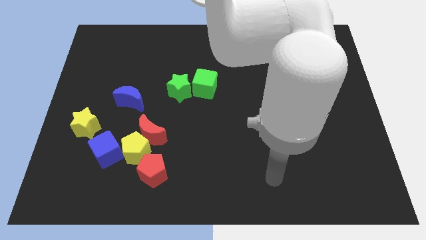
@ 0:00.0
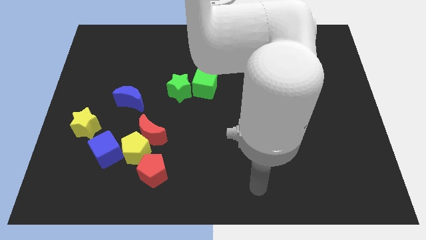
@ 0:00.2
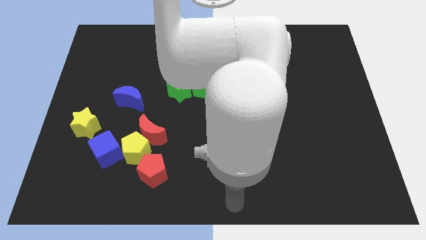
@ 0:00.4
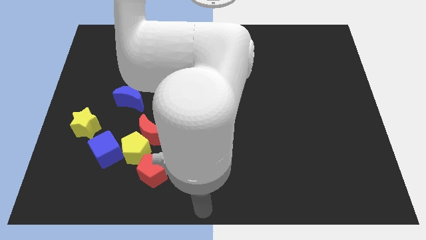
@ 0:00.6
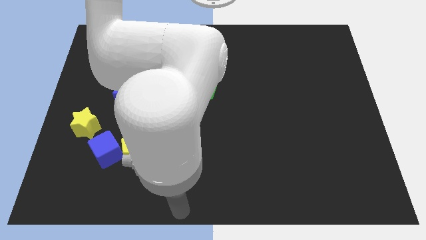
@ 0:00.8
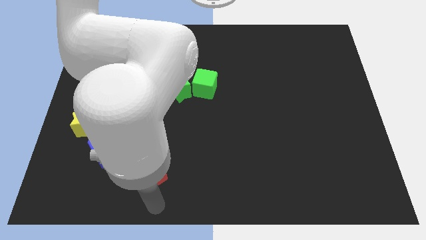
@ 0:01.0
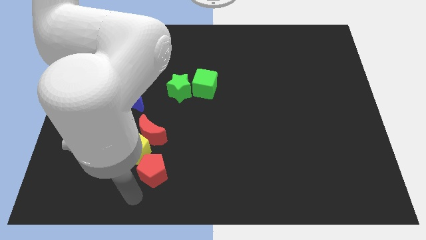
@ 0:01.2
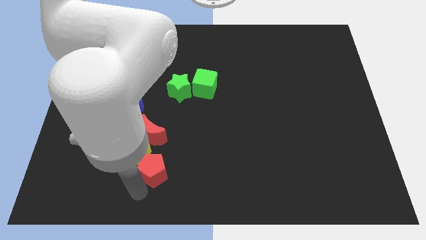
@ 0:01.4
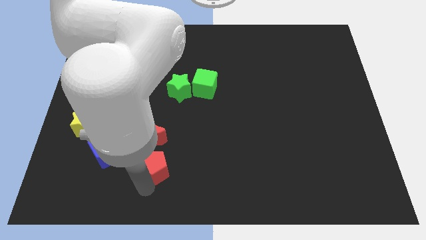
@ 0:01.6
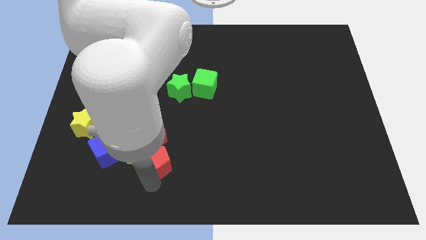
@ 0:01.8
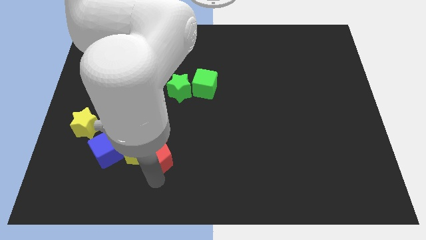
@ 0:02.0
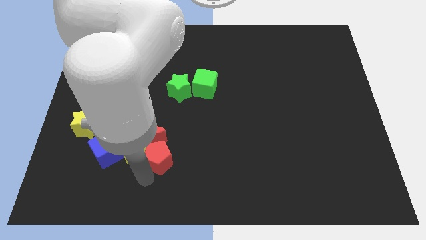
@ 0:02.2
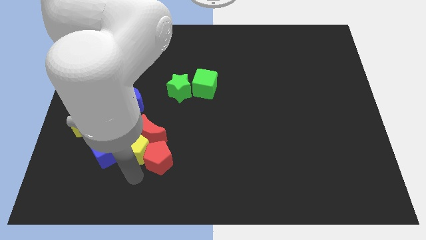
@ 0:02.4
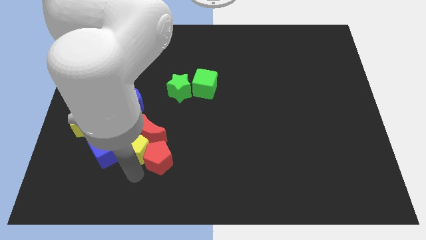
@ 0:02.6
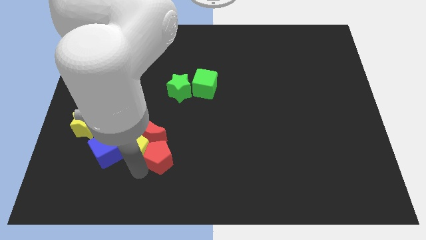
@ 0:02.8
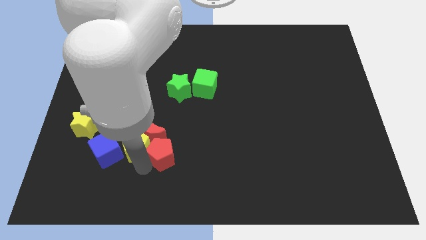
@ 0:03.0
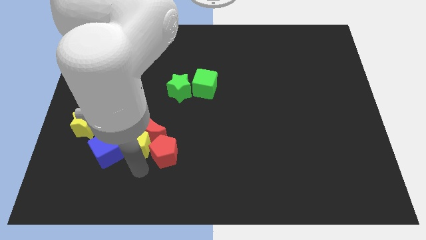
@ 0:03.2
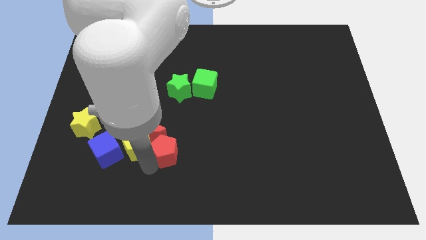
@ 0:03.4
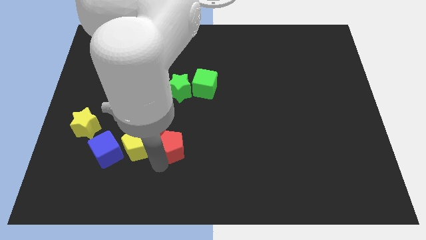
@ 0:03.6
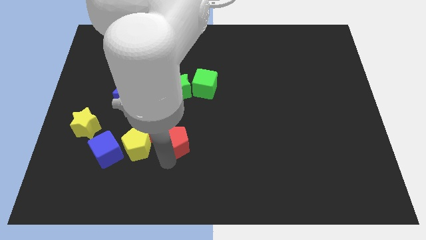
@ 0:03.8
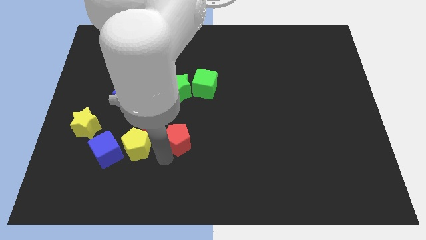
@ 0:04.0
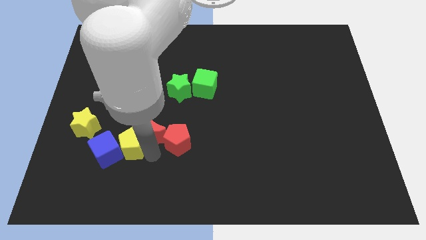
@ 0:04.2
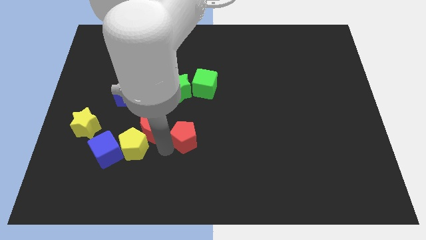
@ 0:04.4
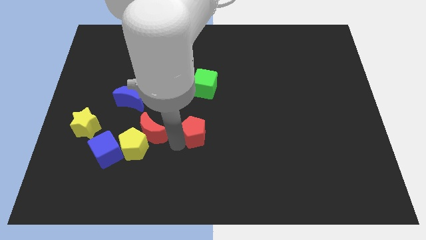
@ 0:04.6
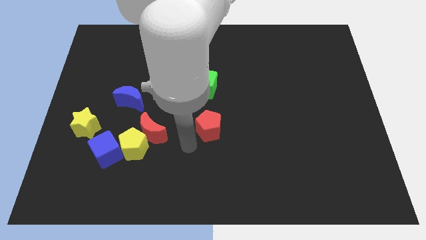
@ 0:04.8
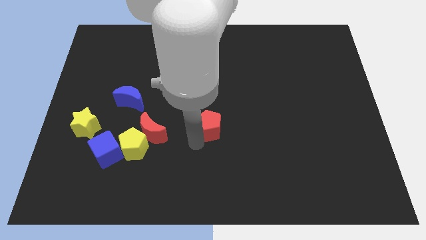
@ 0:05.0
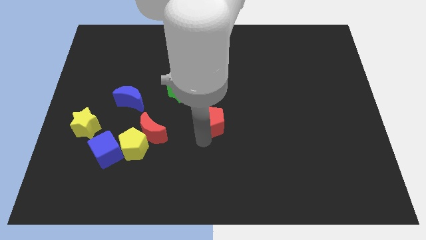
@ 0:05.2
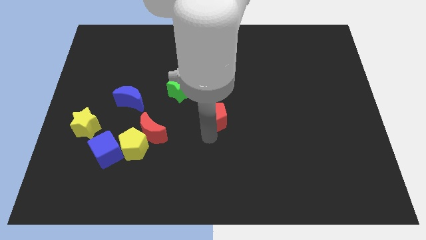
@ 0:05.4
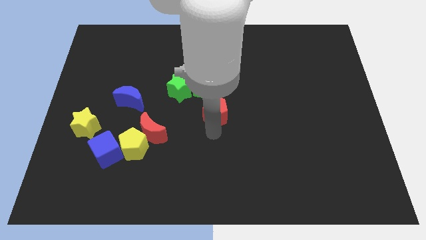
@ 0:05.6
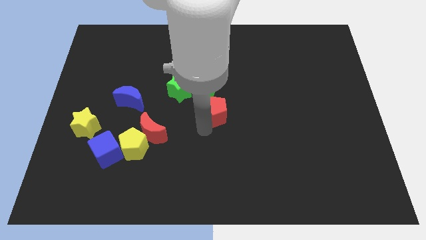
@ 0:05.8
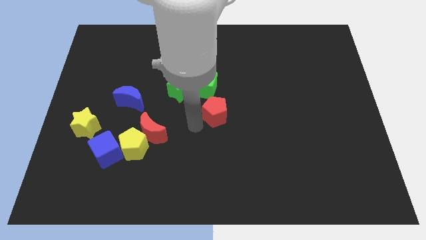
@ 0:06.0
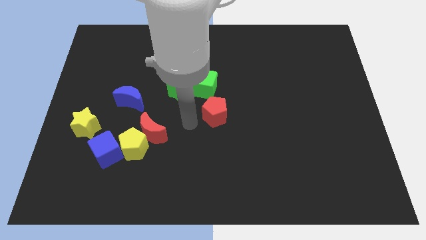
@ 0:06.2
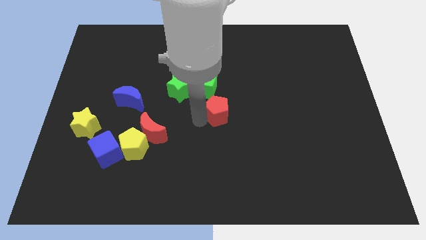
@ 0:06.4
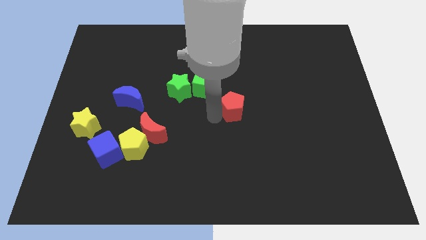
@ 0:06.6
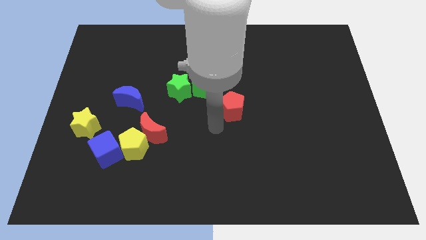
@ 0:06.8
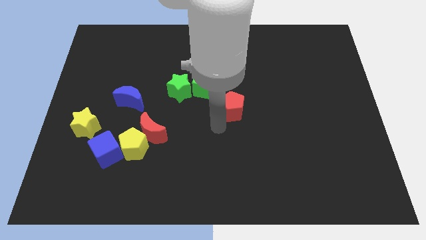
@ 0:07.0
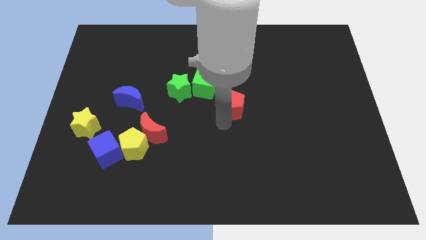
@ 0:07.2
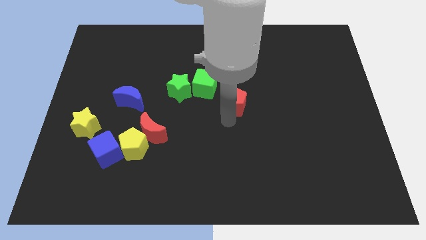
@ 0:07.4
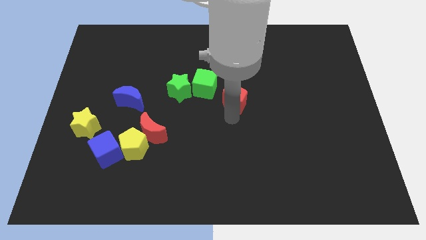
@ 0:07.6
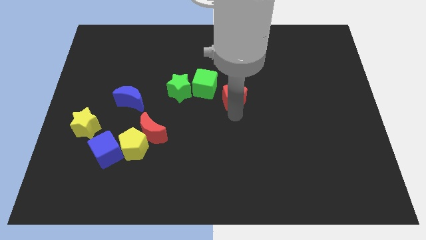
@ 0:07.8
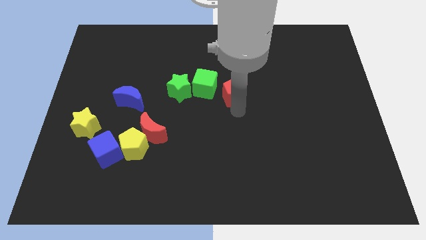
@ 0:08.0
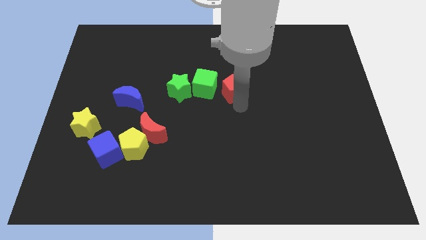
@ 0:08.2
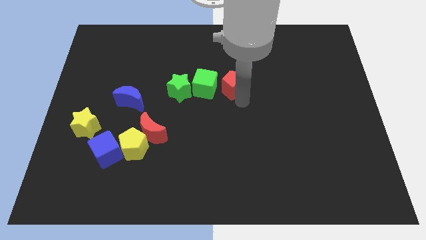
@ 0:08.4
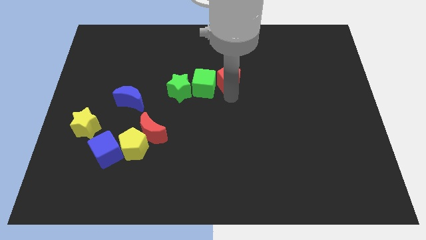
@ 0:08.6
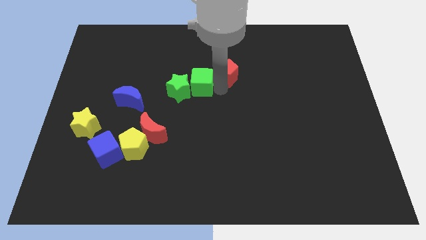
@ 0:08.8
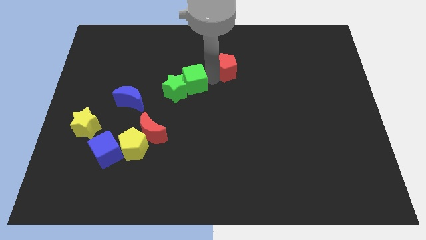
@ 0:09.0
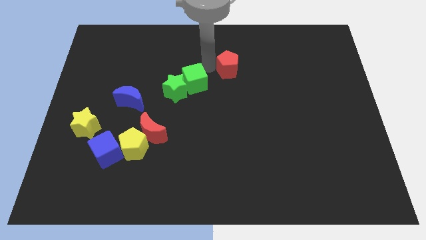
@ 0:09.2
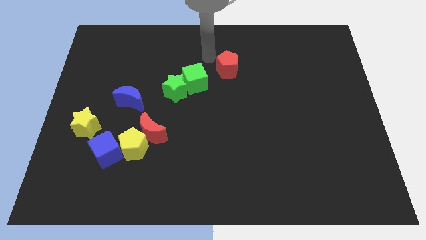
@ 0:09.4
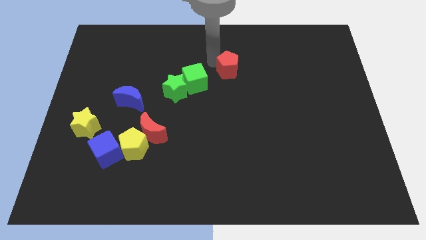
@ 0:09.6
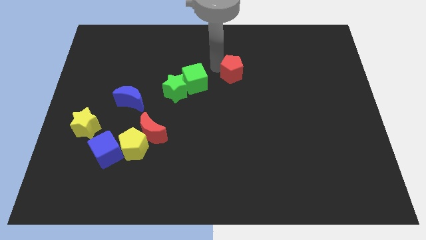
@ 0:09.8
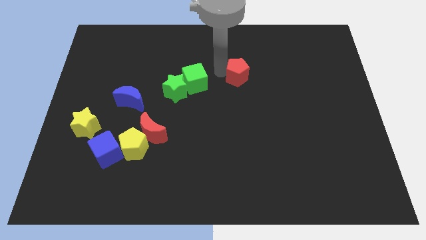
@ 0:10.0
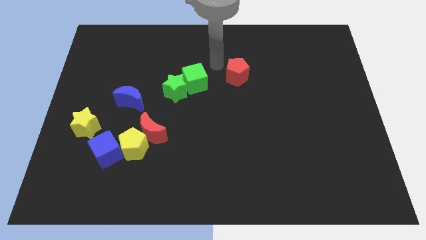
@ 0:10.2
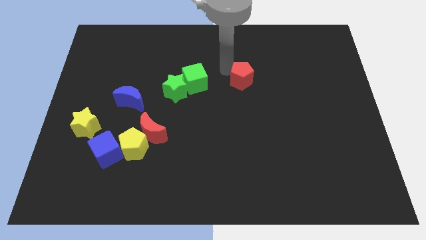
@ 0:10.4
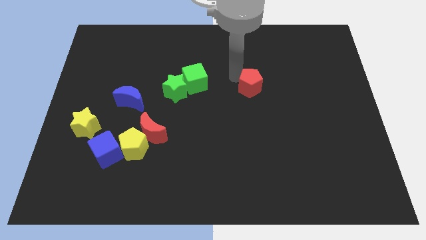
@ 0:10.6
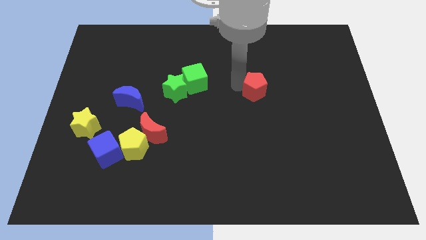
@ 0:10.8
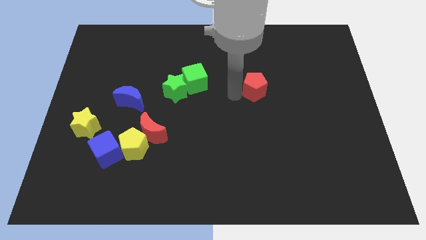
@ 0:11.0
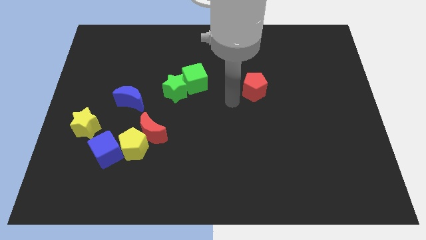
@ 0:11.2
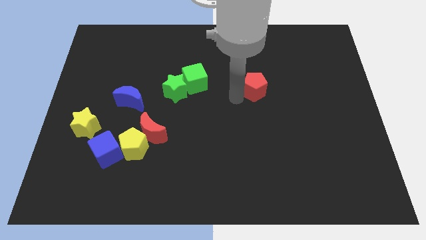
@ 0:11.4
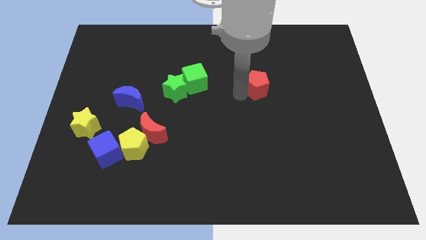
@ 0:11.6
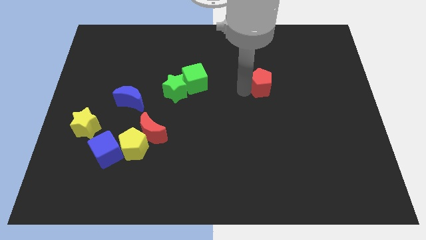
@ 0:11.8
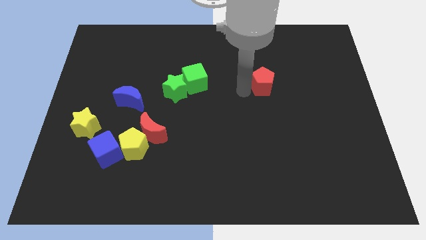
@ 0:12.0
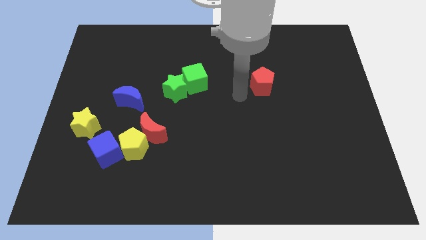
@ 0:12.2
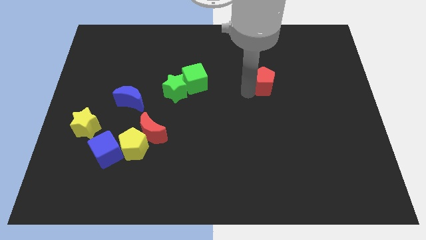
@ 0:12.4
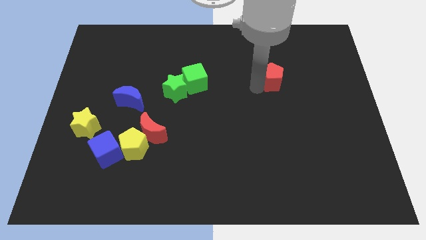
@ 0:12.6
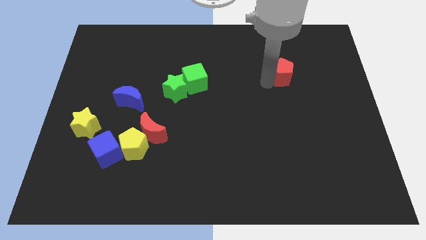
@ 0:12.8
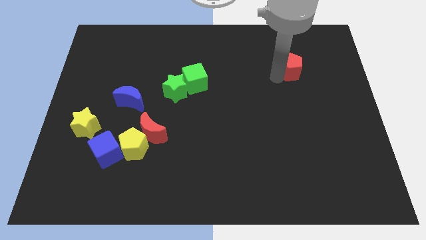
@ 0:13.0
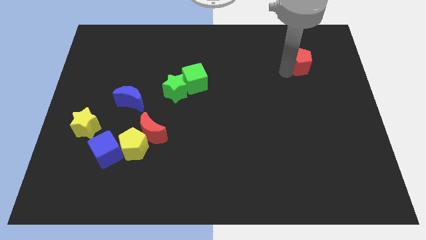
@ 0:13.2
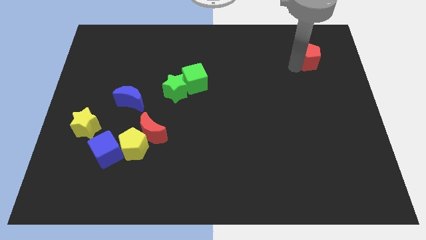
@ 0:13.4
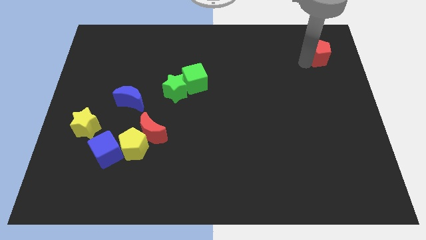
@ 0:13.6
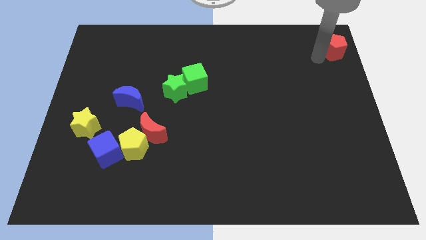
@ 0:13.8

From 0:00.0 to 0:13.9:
move the red pentagon to the top right corner
